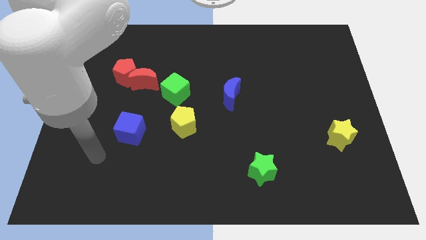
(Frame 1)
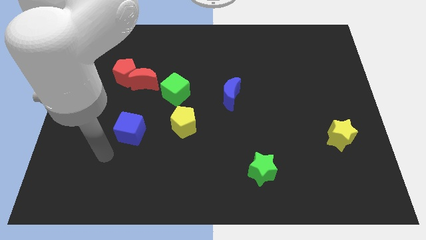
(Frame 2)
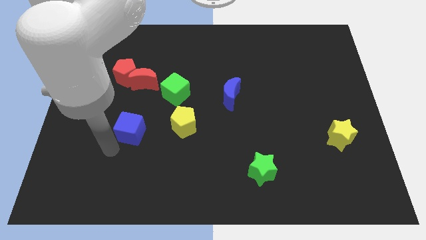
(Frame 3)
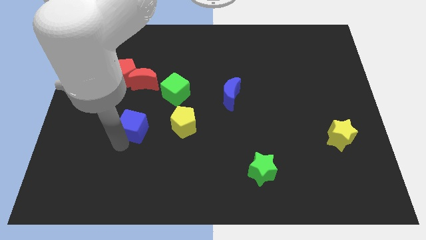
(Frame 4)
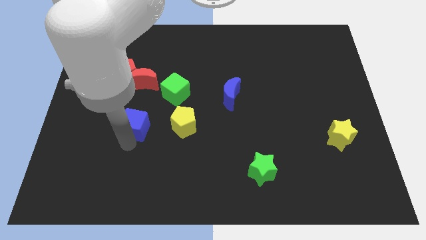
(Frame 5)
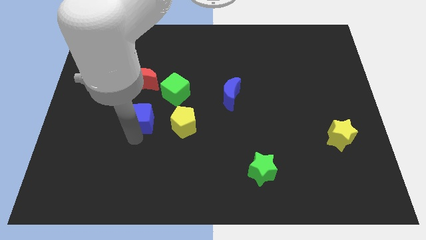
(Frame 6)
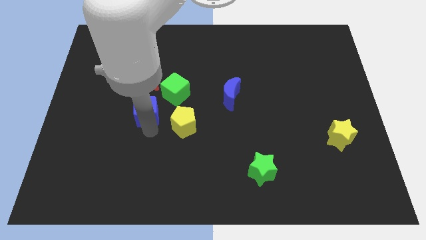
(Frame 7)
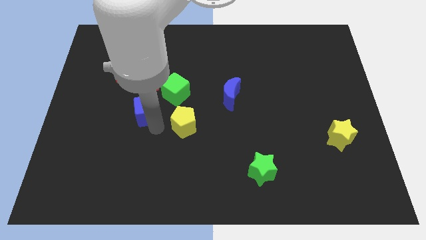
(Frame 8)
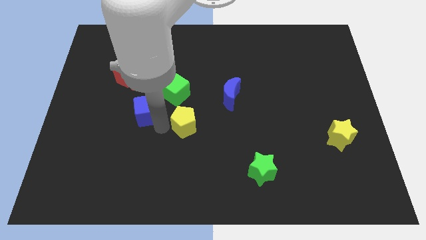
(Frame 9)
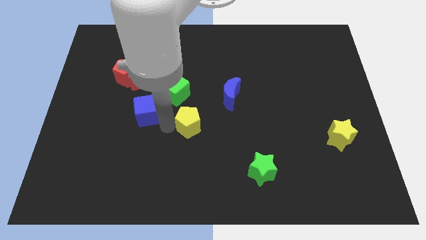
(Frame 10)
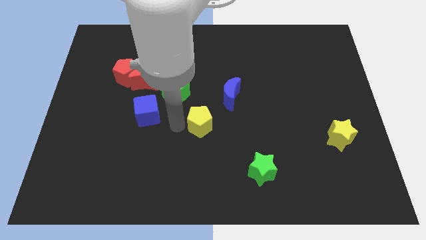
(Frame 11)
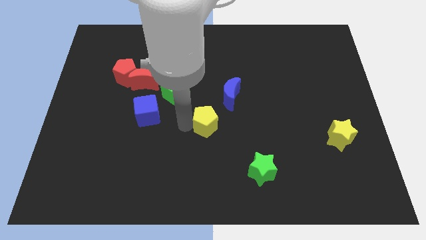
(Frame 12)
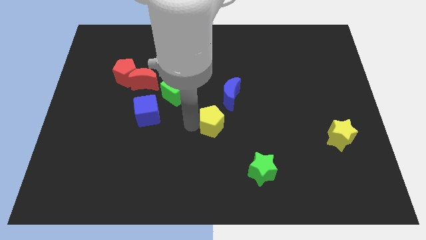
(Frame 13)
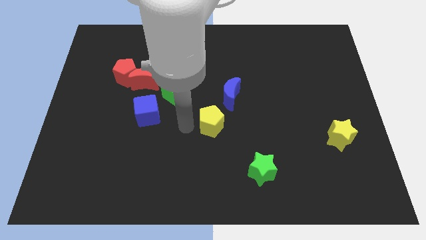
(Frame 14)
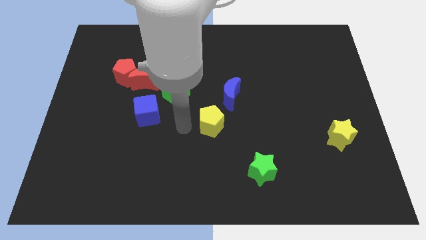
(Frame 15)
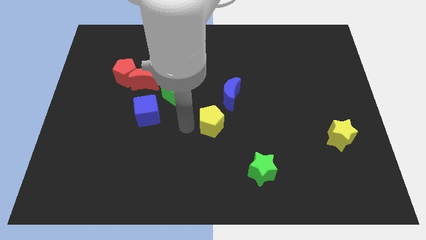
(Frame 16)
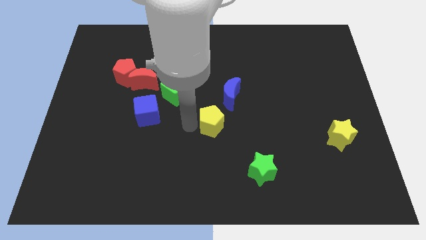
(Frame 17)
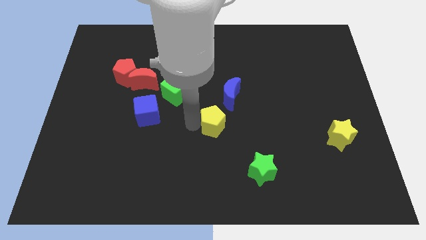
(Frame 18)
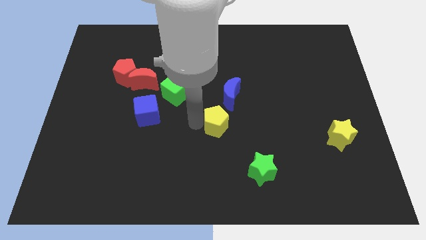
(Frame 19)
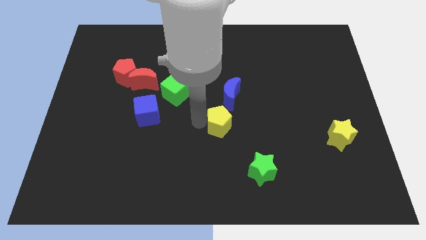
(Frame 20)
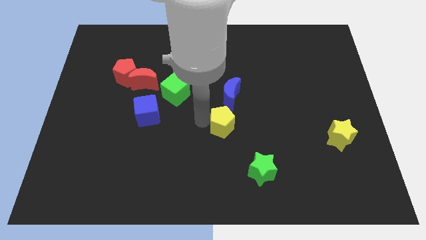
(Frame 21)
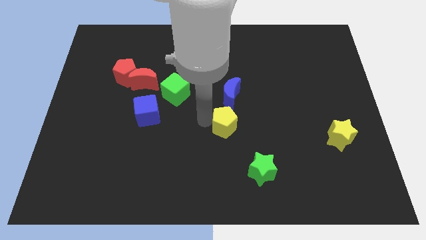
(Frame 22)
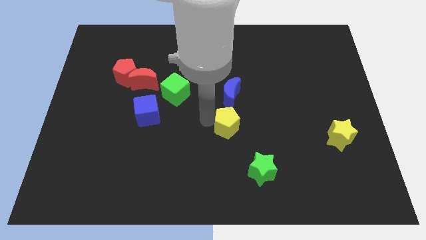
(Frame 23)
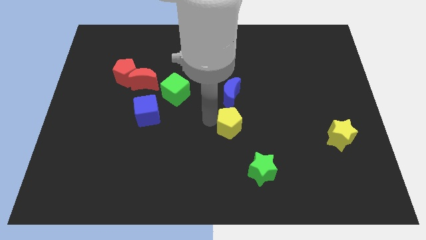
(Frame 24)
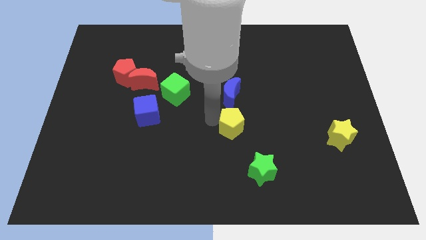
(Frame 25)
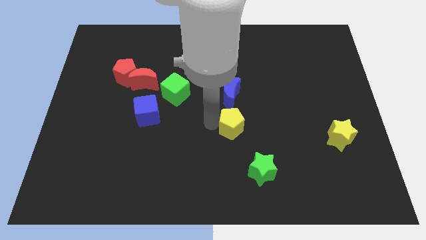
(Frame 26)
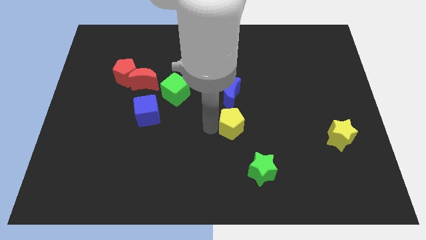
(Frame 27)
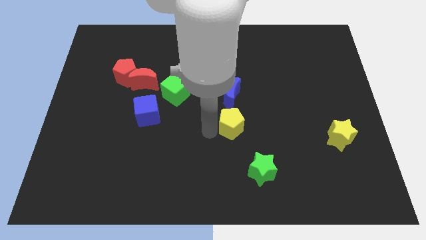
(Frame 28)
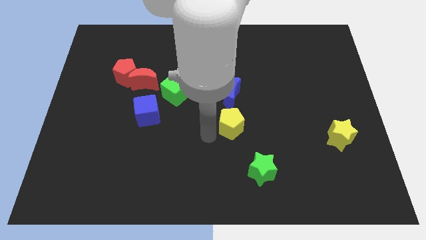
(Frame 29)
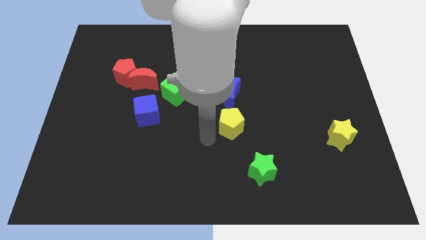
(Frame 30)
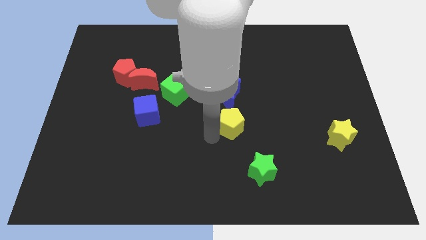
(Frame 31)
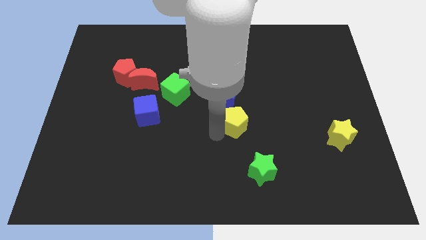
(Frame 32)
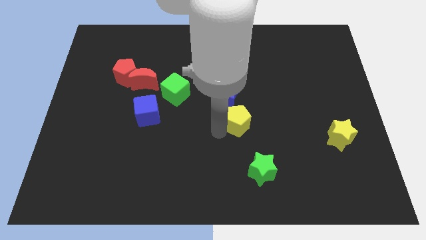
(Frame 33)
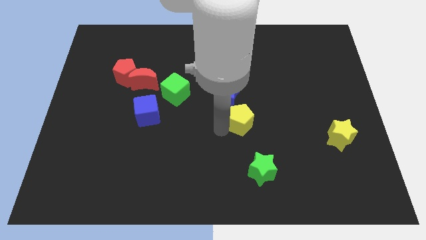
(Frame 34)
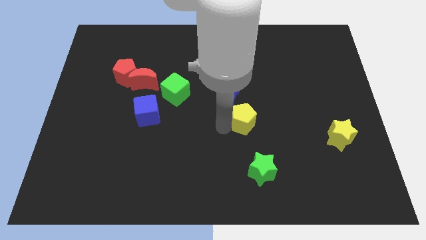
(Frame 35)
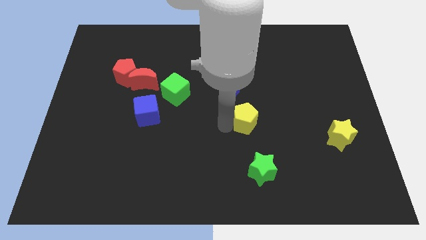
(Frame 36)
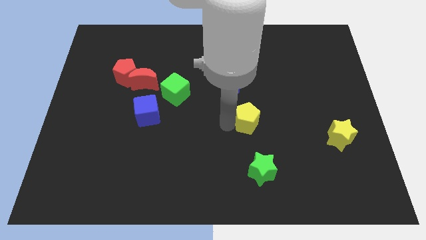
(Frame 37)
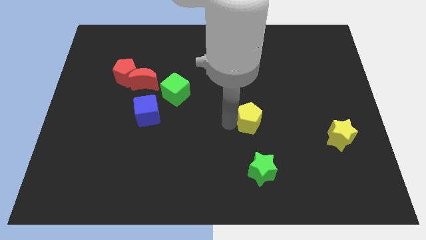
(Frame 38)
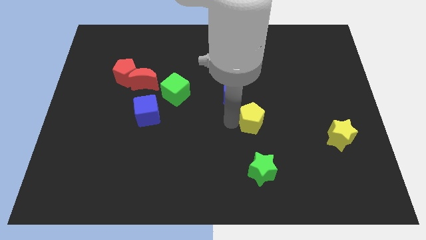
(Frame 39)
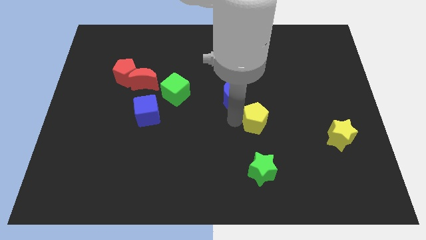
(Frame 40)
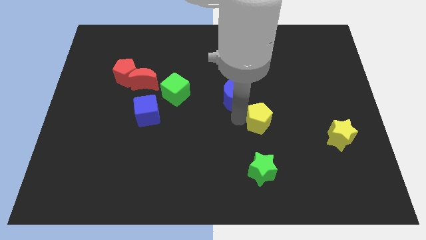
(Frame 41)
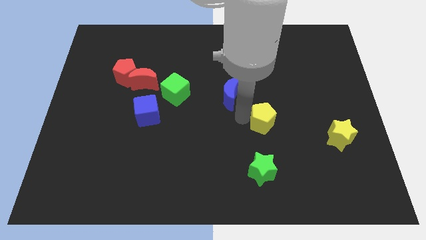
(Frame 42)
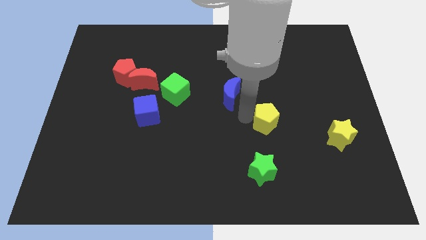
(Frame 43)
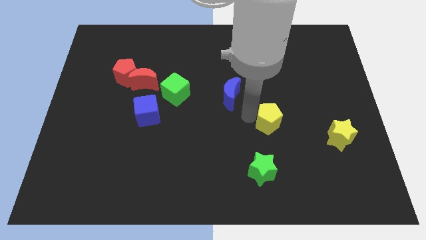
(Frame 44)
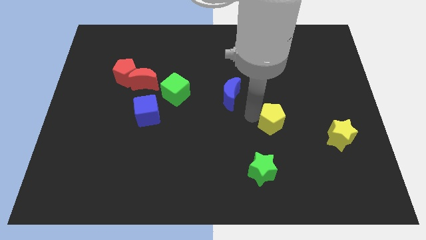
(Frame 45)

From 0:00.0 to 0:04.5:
push the yellow pentagon to the right

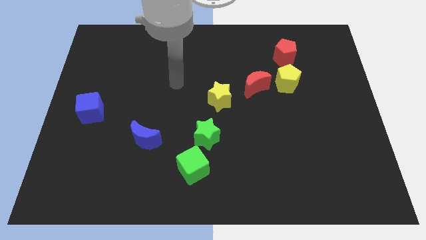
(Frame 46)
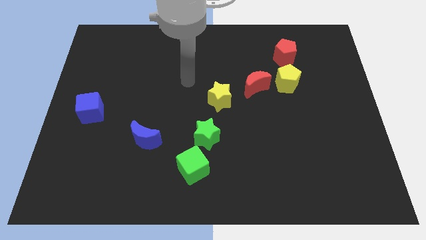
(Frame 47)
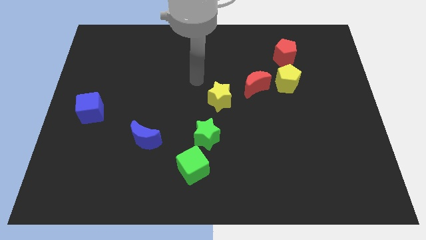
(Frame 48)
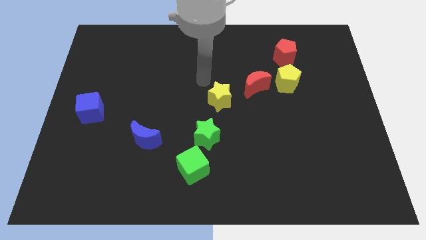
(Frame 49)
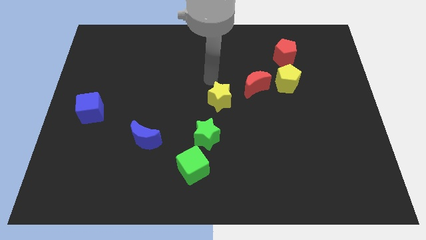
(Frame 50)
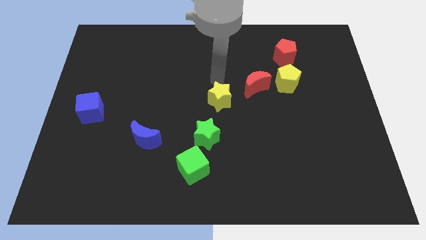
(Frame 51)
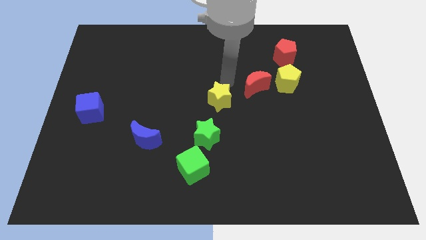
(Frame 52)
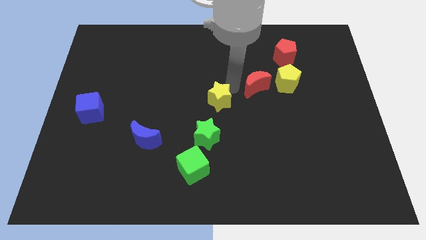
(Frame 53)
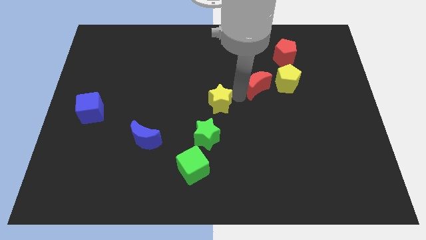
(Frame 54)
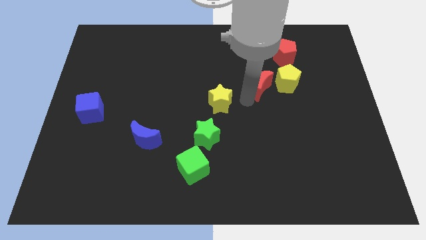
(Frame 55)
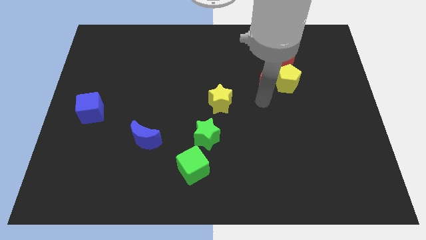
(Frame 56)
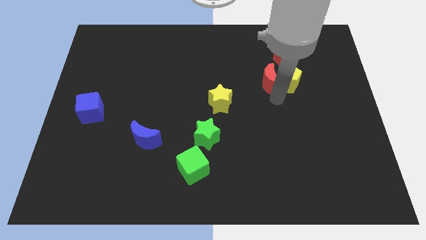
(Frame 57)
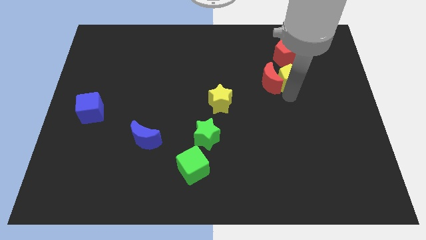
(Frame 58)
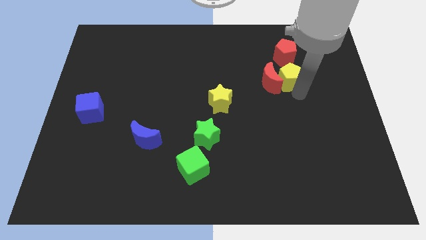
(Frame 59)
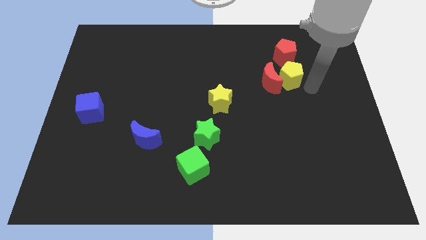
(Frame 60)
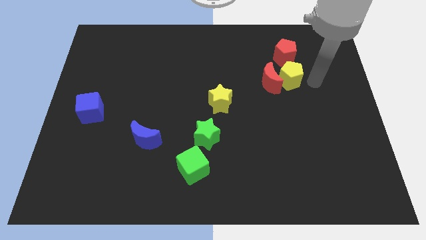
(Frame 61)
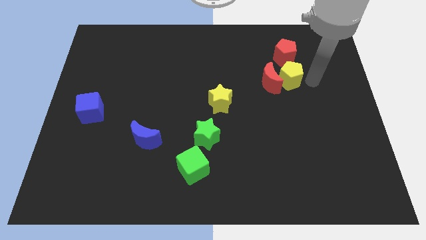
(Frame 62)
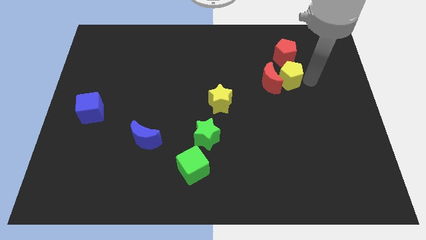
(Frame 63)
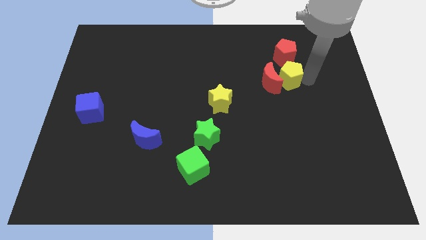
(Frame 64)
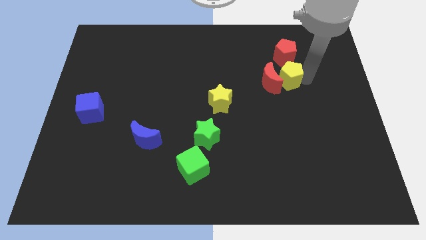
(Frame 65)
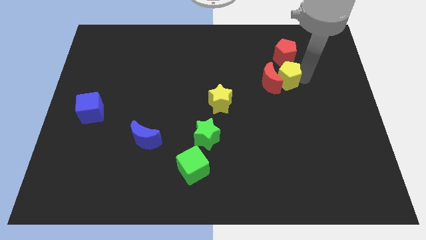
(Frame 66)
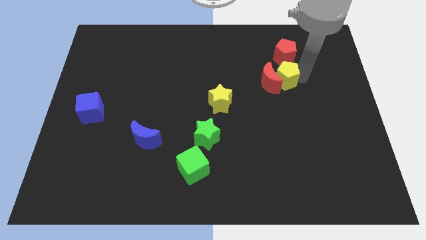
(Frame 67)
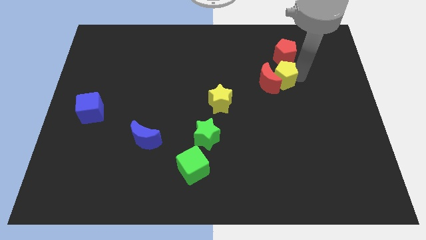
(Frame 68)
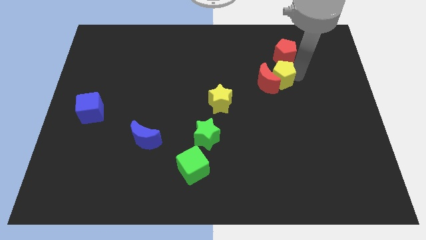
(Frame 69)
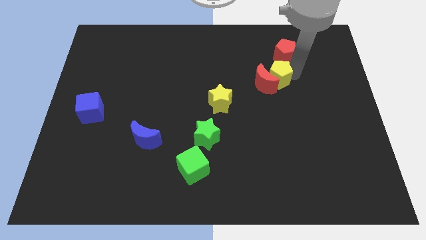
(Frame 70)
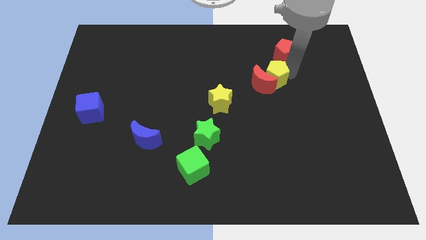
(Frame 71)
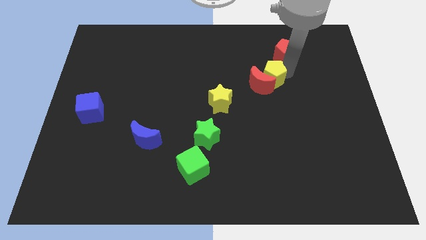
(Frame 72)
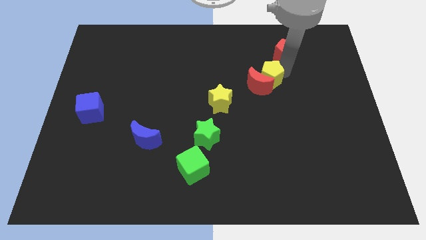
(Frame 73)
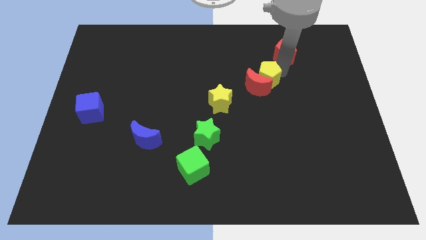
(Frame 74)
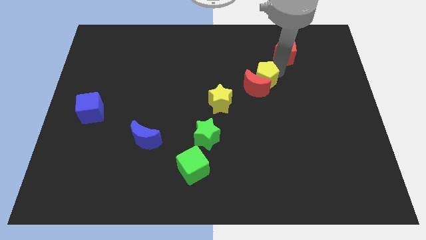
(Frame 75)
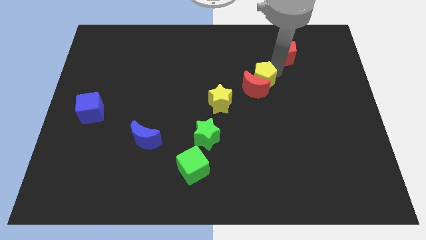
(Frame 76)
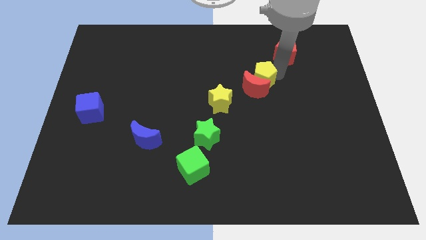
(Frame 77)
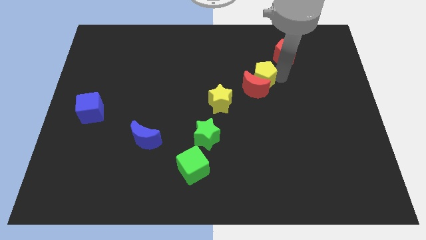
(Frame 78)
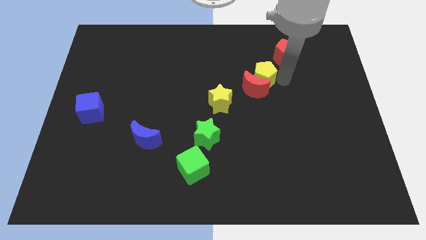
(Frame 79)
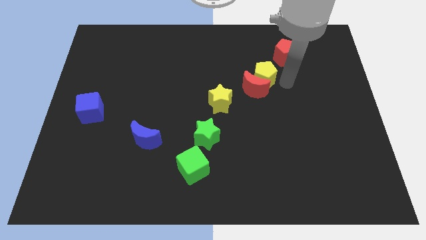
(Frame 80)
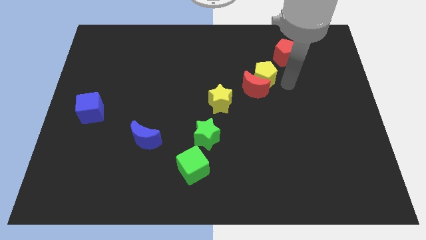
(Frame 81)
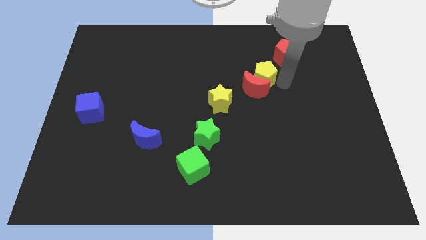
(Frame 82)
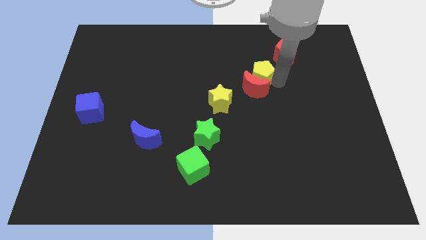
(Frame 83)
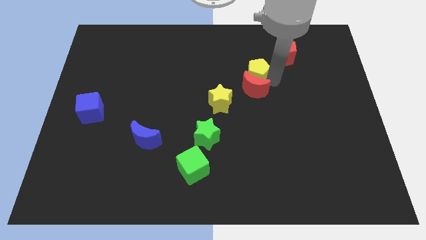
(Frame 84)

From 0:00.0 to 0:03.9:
slide the yellow pentagon to the left a little

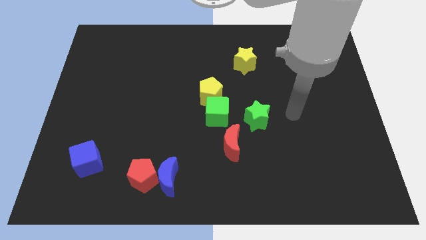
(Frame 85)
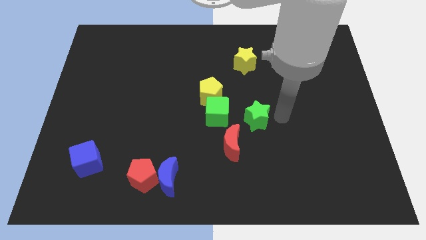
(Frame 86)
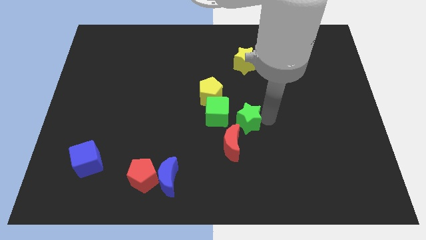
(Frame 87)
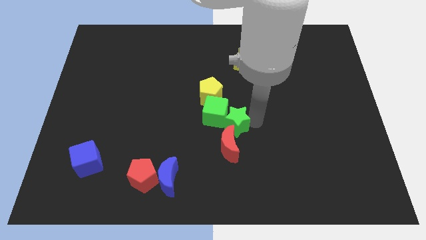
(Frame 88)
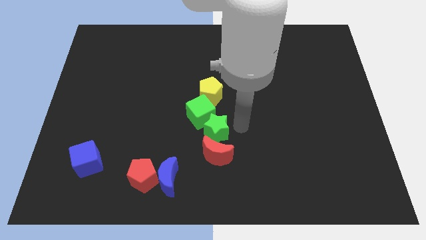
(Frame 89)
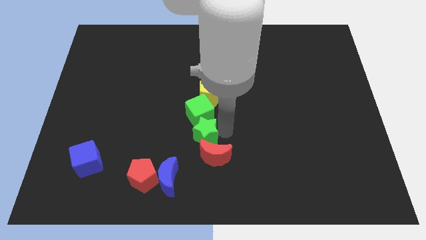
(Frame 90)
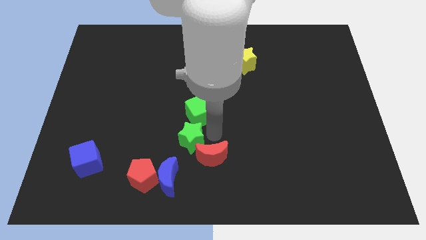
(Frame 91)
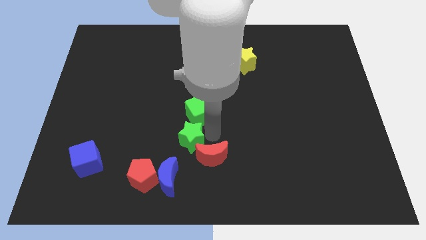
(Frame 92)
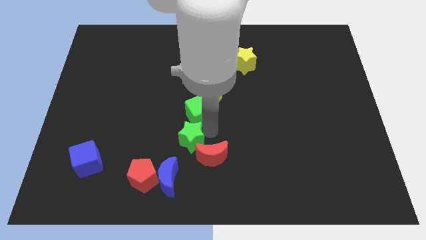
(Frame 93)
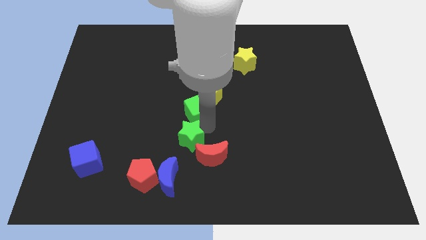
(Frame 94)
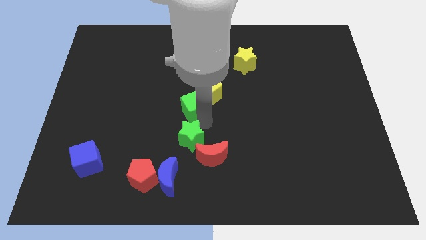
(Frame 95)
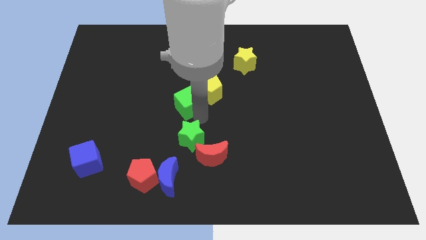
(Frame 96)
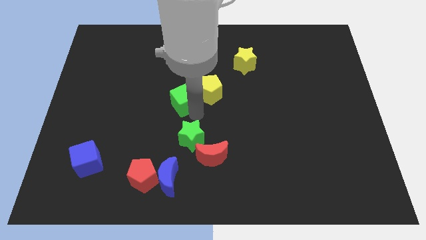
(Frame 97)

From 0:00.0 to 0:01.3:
slightly move the green cube upwards and left diagonally
